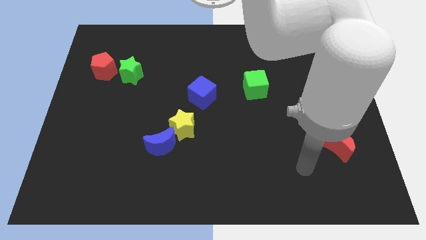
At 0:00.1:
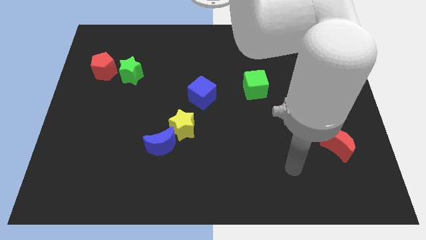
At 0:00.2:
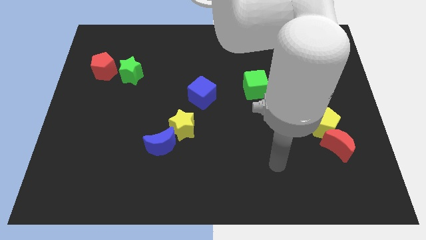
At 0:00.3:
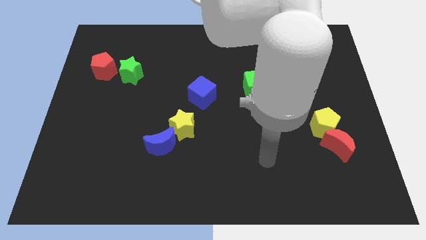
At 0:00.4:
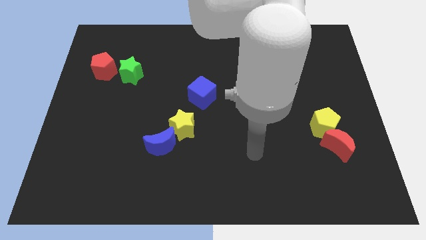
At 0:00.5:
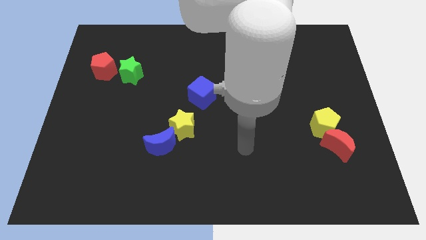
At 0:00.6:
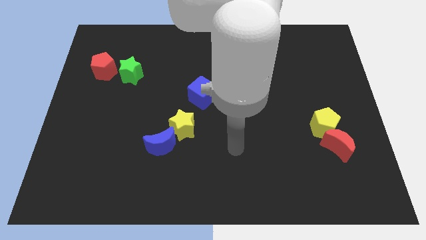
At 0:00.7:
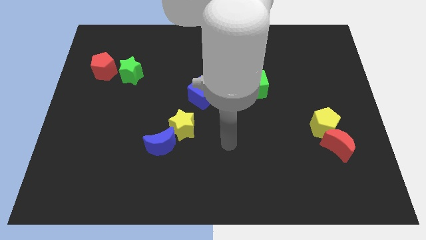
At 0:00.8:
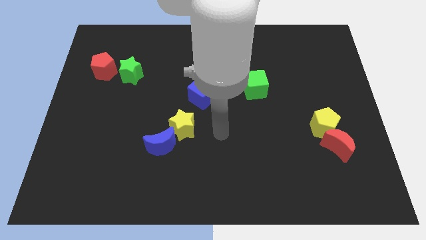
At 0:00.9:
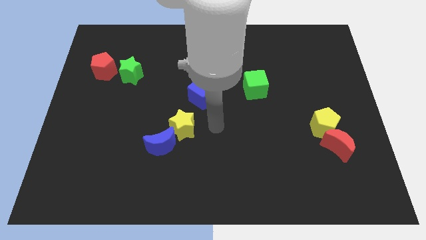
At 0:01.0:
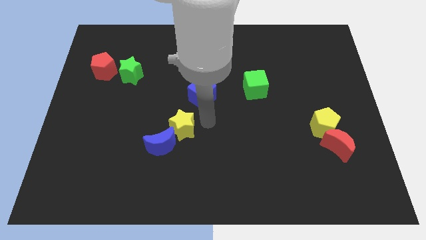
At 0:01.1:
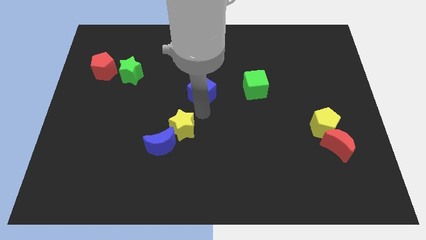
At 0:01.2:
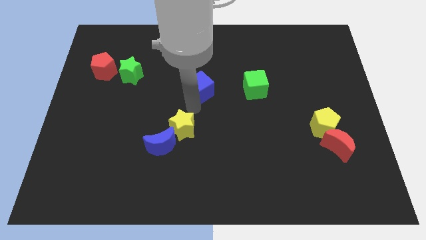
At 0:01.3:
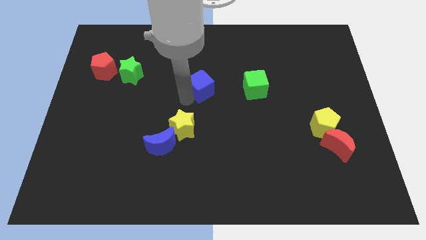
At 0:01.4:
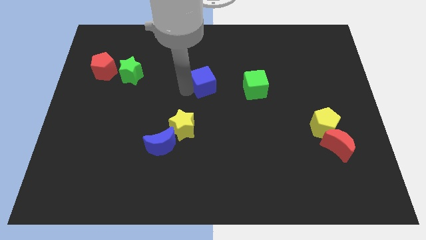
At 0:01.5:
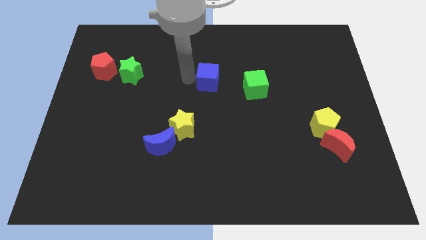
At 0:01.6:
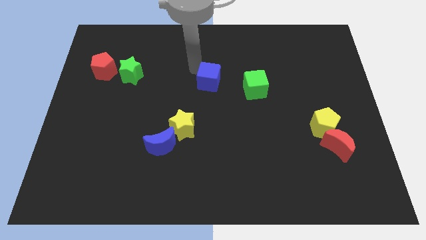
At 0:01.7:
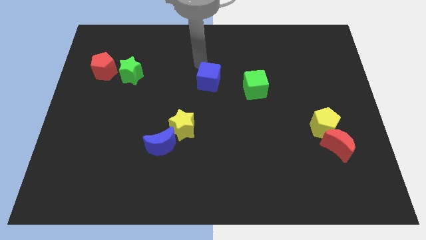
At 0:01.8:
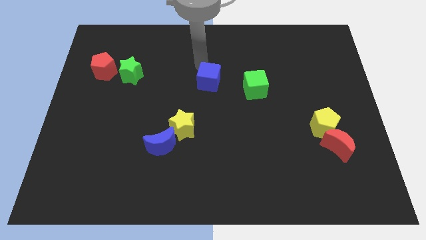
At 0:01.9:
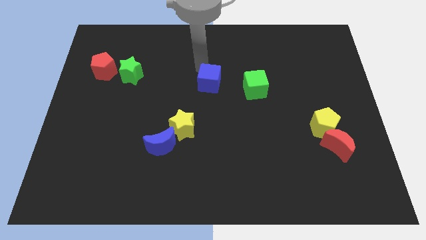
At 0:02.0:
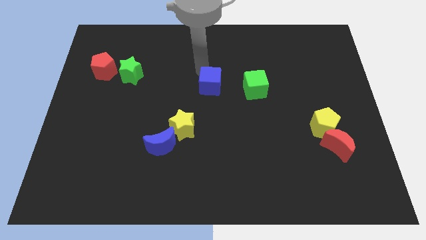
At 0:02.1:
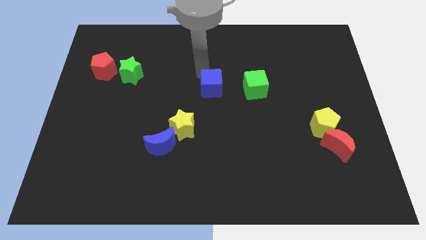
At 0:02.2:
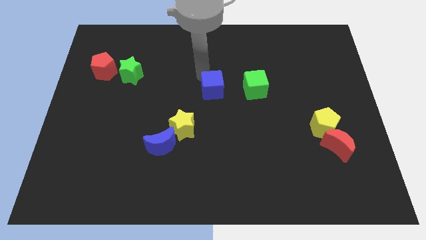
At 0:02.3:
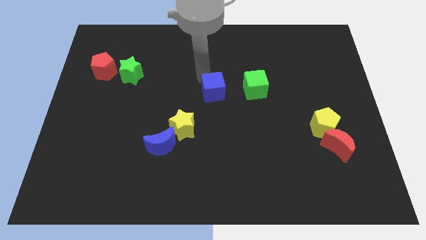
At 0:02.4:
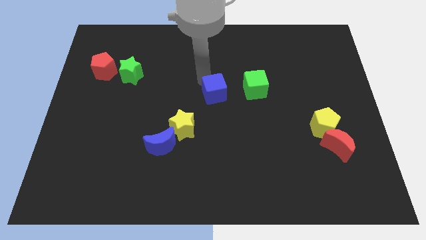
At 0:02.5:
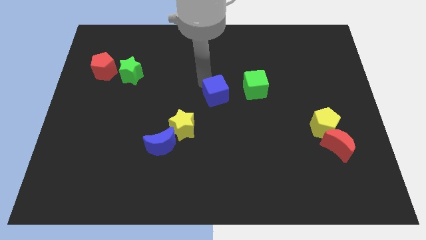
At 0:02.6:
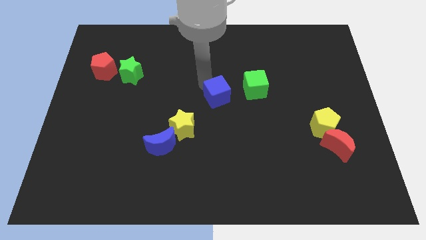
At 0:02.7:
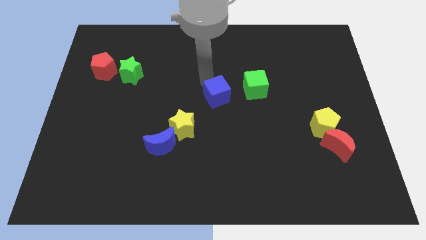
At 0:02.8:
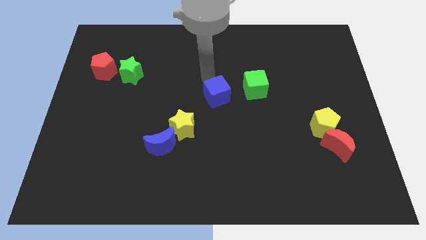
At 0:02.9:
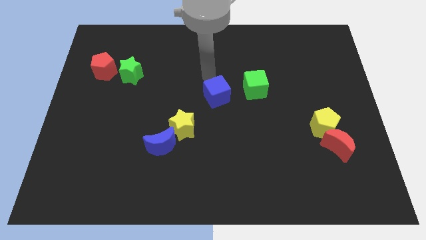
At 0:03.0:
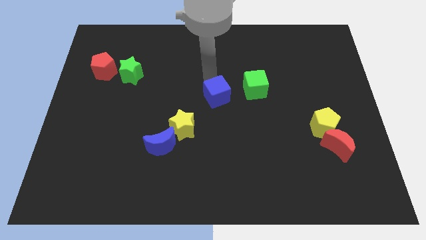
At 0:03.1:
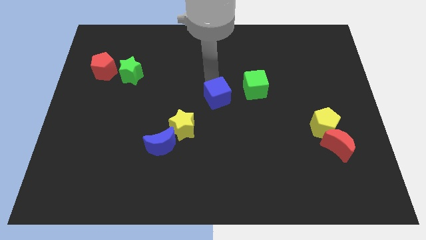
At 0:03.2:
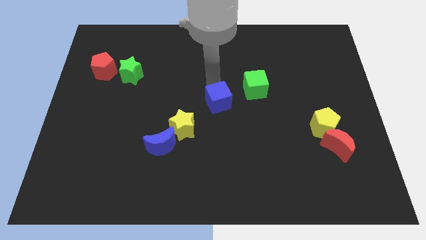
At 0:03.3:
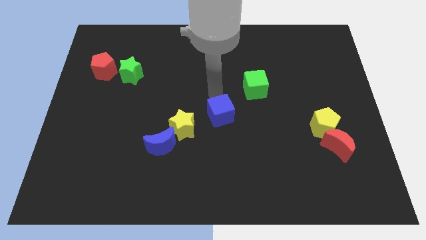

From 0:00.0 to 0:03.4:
slide the blue cube down and right diagonally slightly

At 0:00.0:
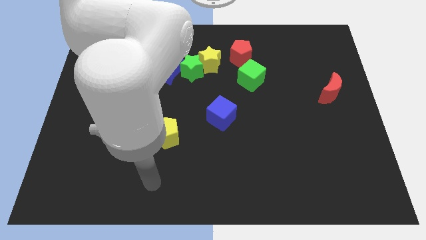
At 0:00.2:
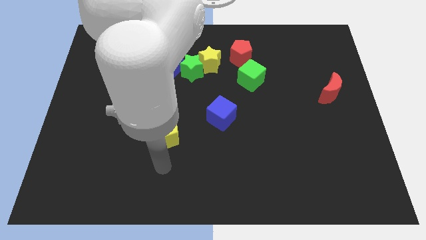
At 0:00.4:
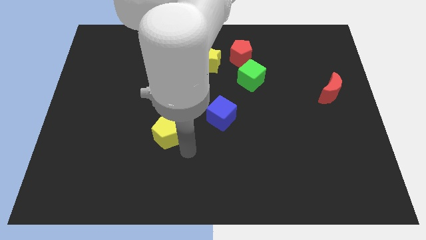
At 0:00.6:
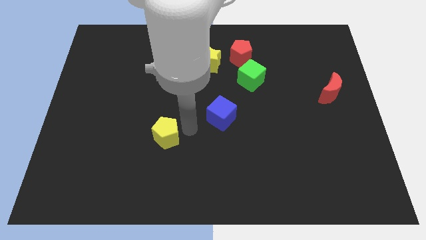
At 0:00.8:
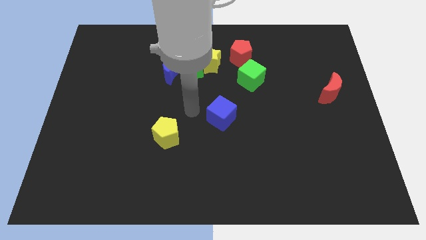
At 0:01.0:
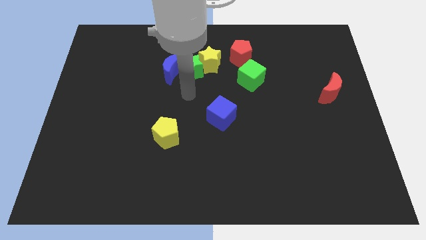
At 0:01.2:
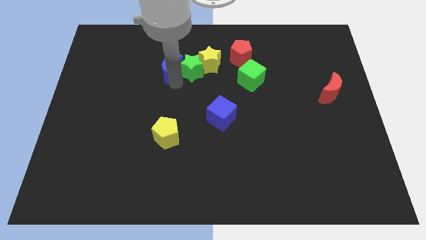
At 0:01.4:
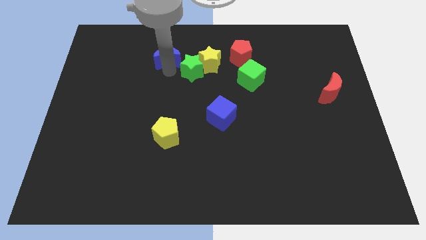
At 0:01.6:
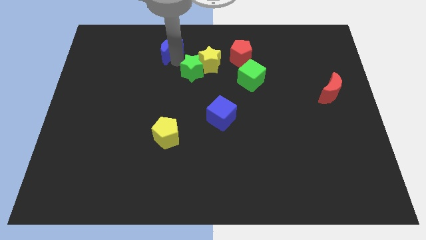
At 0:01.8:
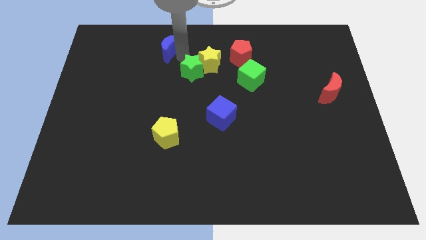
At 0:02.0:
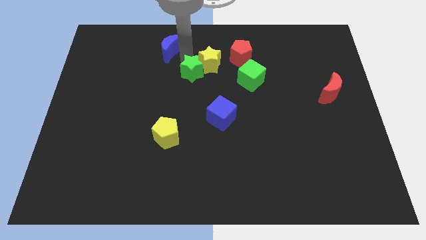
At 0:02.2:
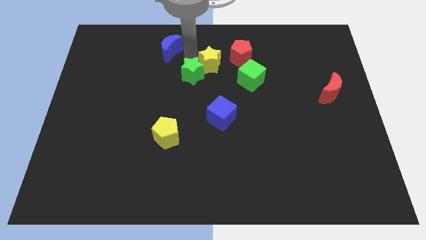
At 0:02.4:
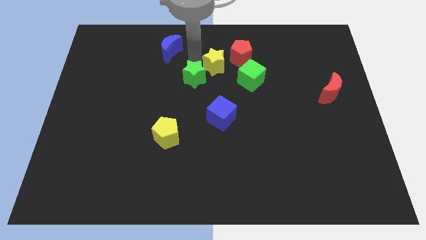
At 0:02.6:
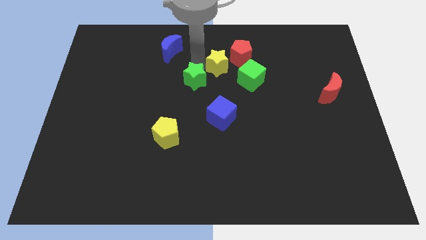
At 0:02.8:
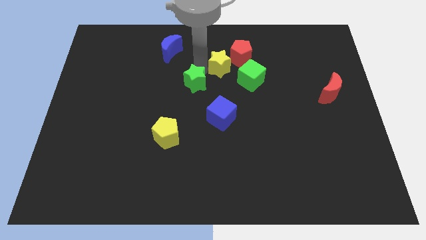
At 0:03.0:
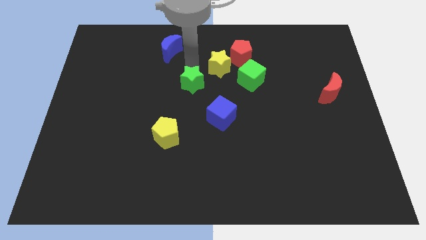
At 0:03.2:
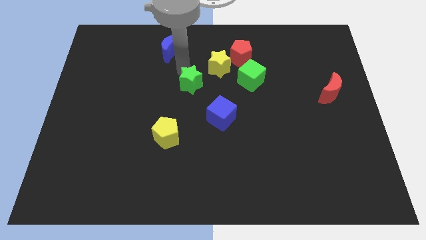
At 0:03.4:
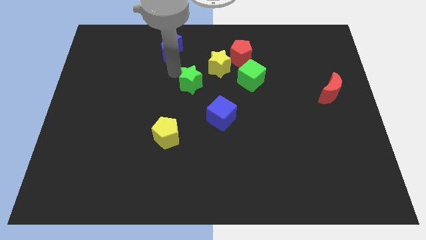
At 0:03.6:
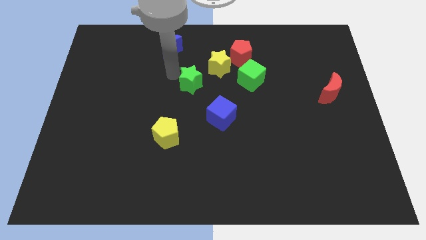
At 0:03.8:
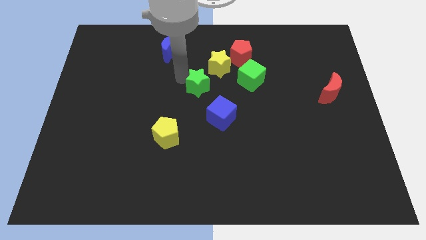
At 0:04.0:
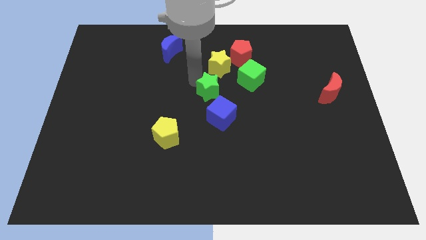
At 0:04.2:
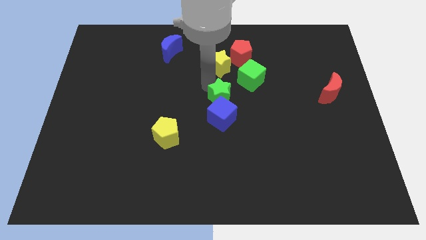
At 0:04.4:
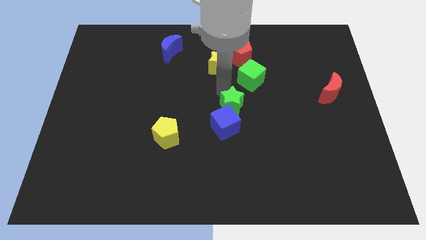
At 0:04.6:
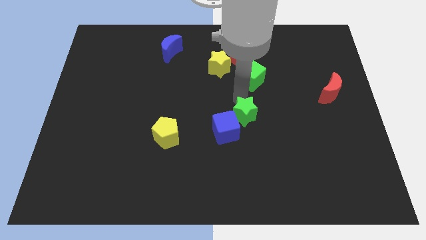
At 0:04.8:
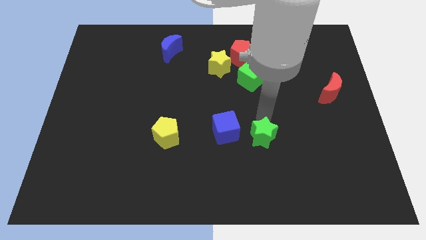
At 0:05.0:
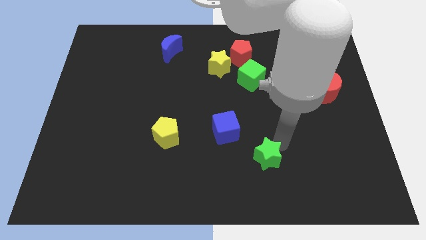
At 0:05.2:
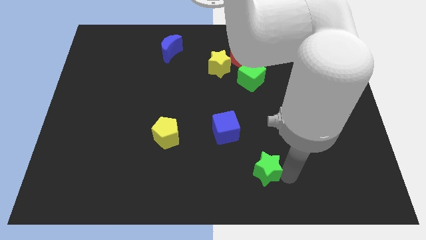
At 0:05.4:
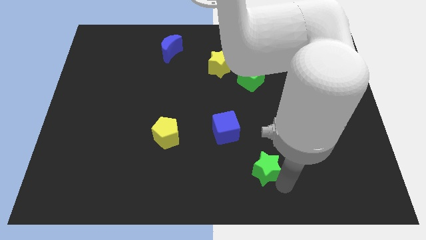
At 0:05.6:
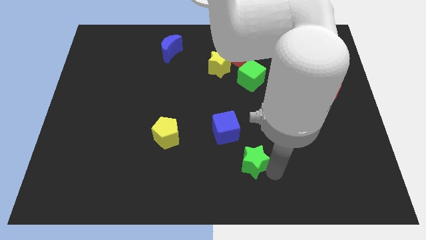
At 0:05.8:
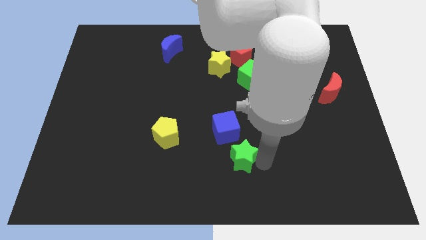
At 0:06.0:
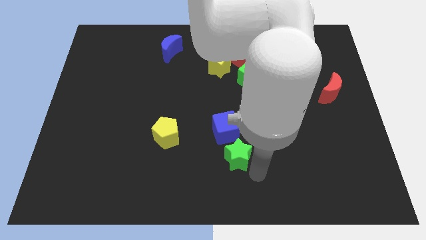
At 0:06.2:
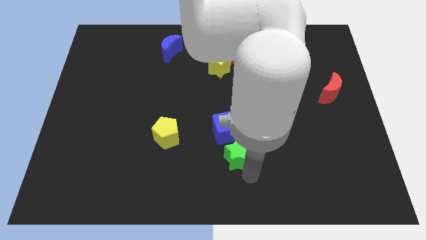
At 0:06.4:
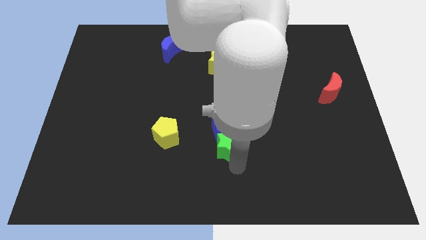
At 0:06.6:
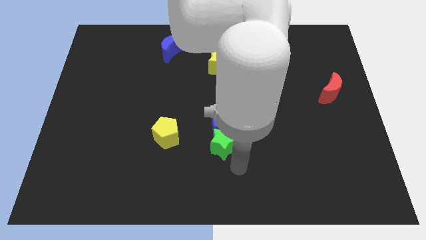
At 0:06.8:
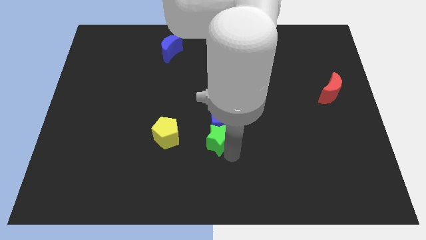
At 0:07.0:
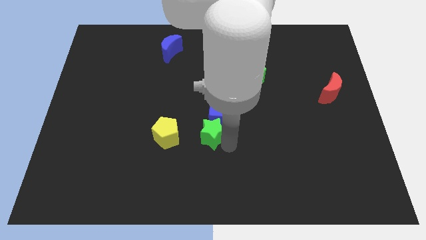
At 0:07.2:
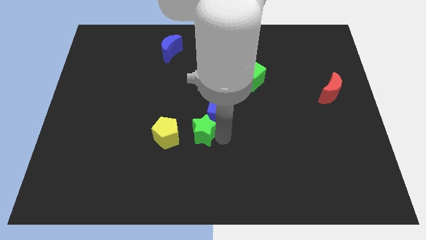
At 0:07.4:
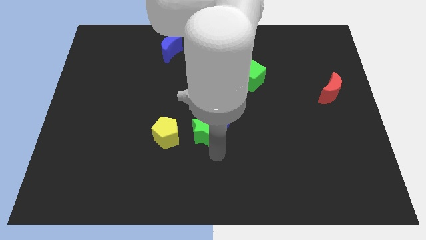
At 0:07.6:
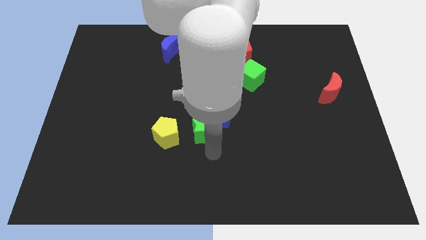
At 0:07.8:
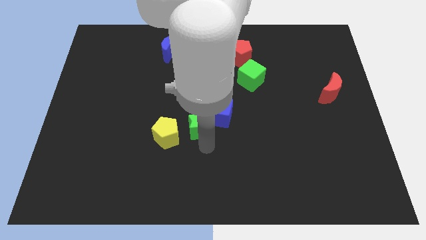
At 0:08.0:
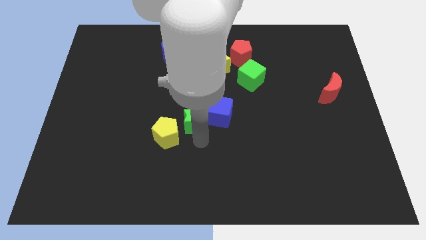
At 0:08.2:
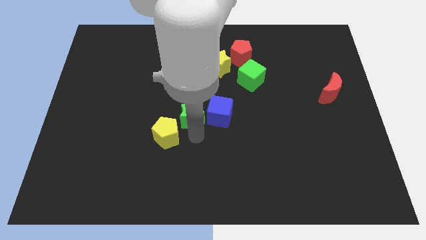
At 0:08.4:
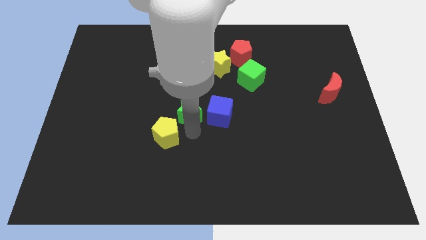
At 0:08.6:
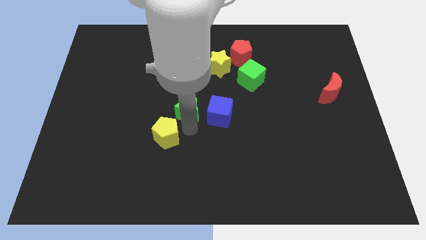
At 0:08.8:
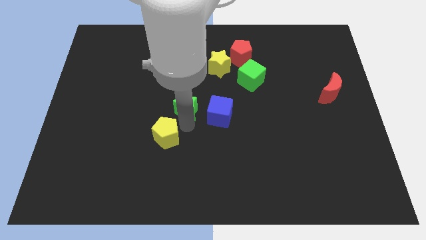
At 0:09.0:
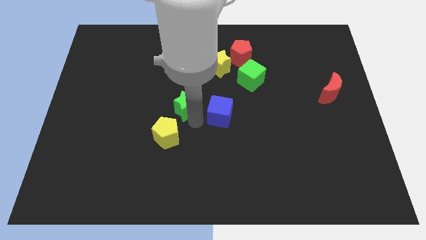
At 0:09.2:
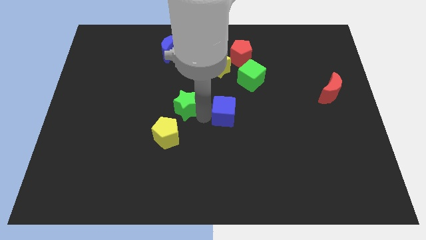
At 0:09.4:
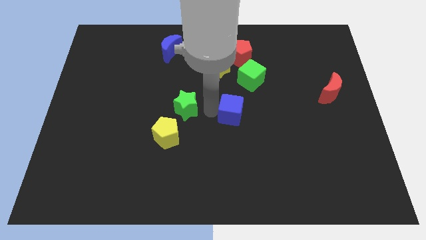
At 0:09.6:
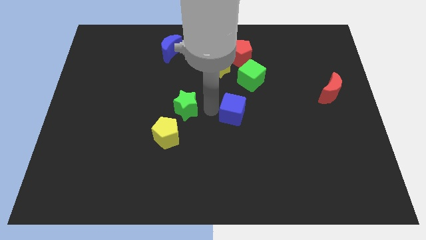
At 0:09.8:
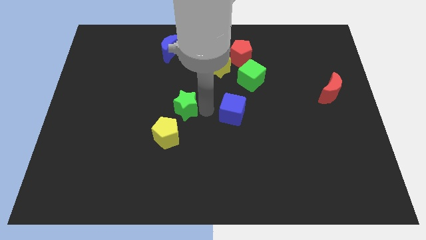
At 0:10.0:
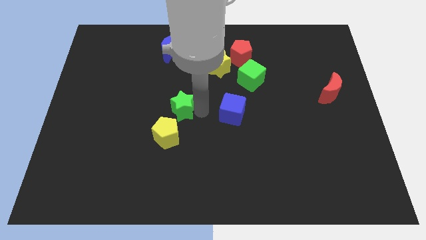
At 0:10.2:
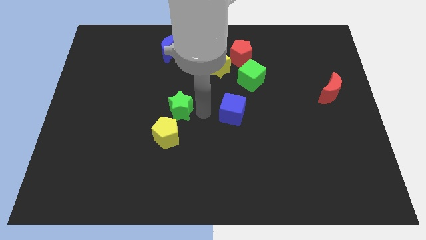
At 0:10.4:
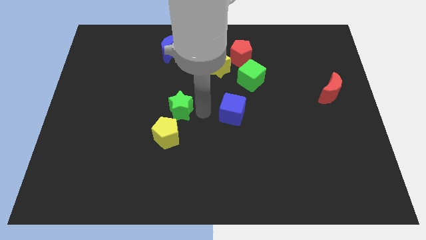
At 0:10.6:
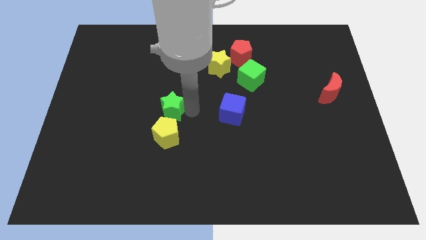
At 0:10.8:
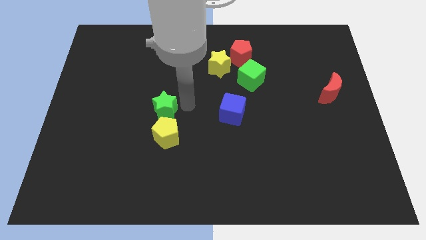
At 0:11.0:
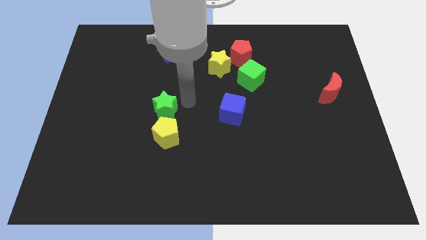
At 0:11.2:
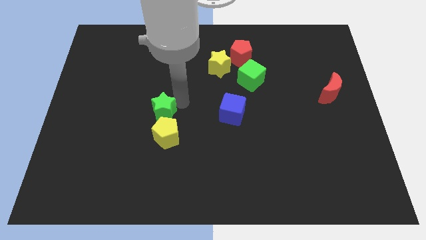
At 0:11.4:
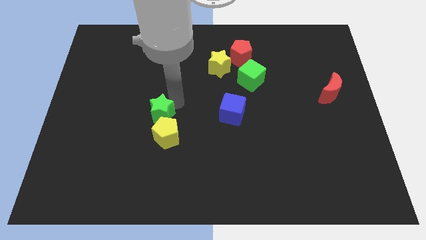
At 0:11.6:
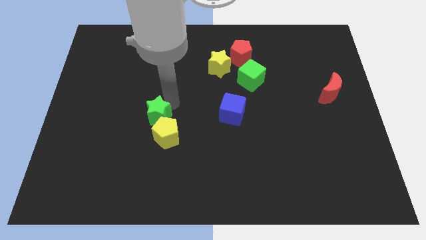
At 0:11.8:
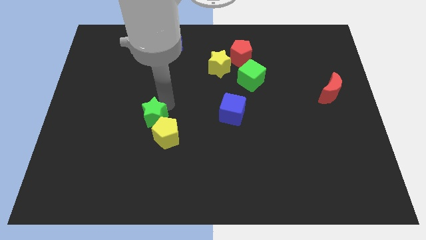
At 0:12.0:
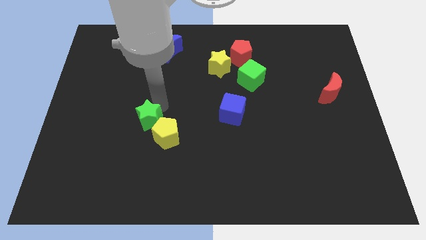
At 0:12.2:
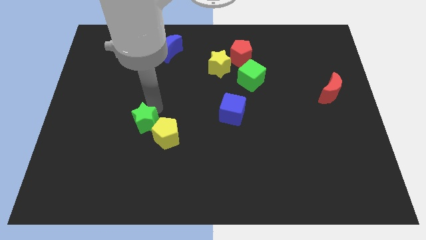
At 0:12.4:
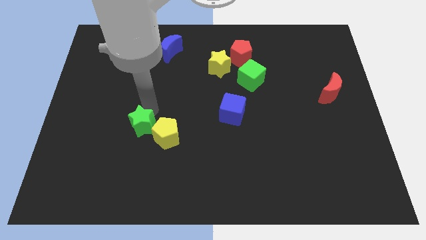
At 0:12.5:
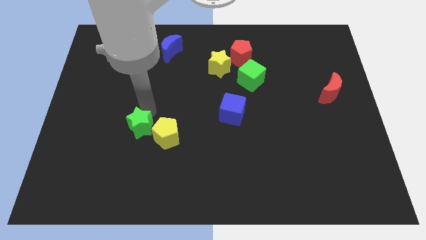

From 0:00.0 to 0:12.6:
move the green star down and then left
